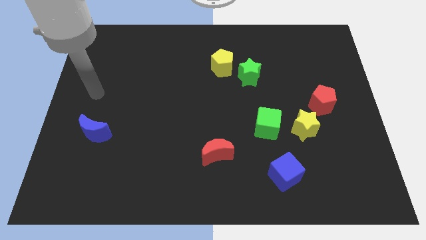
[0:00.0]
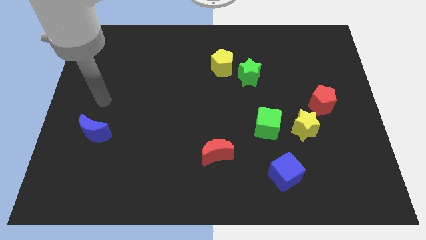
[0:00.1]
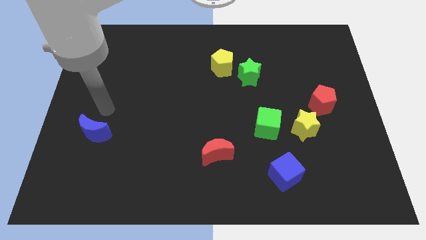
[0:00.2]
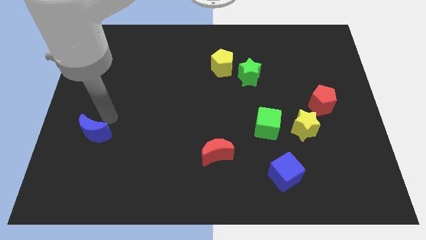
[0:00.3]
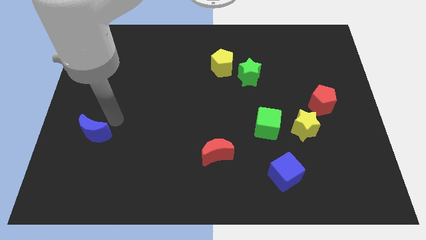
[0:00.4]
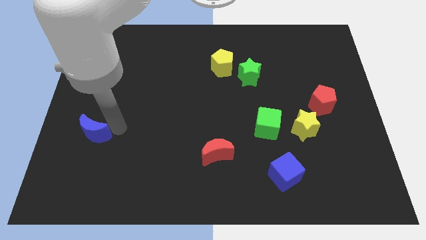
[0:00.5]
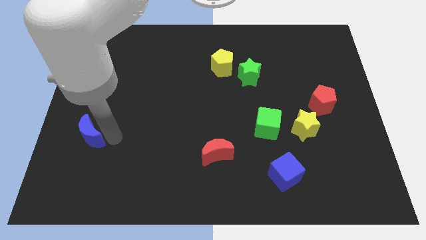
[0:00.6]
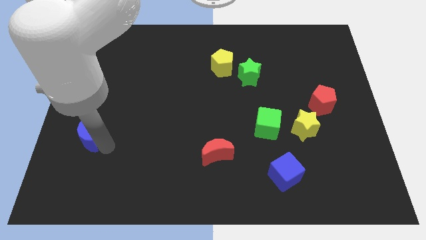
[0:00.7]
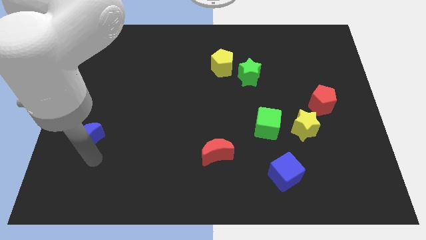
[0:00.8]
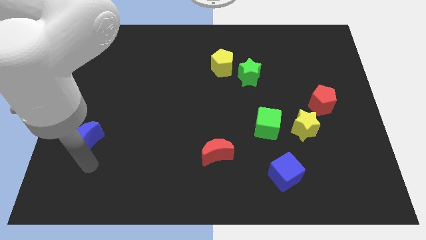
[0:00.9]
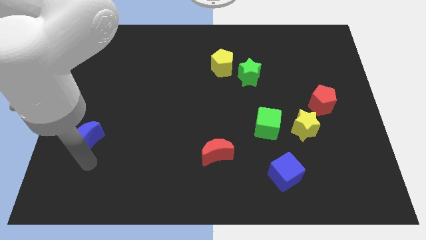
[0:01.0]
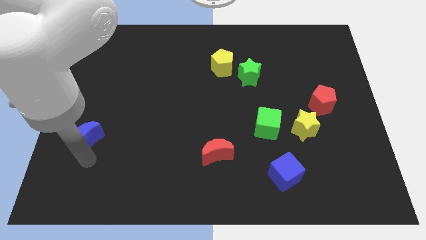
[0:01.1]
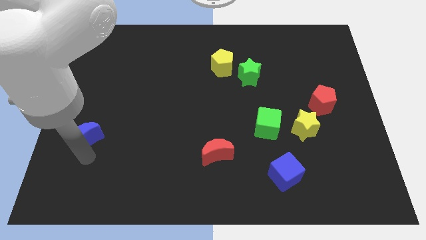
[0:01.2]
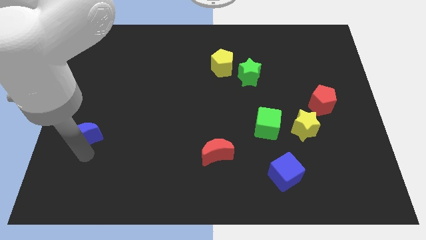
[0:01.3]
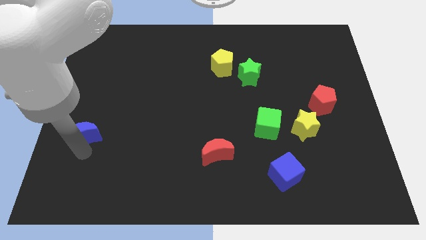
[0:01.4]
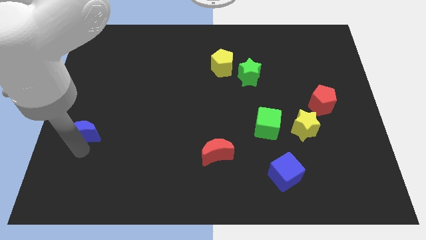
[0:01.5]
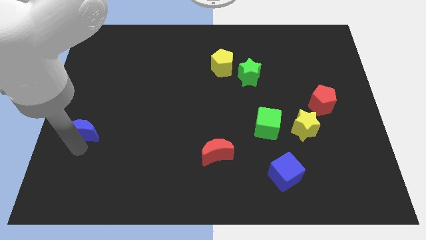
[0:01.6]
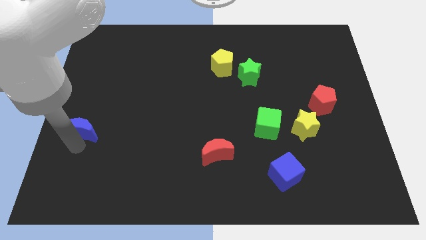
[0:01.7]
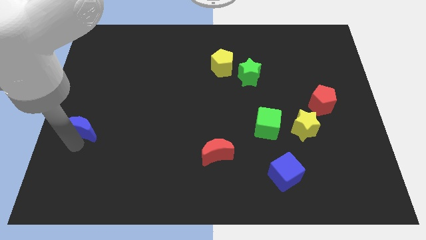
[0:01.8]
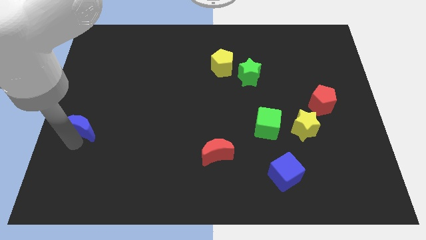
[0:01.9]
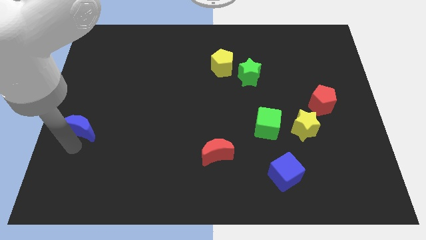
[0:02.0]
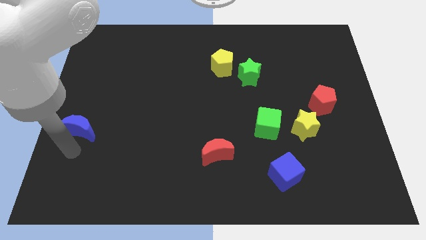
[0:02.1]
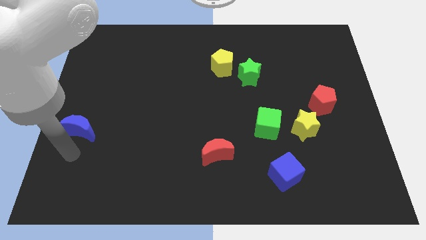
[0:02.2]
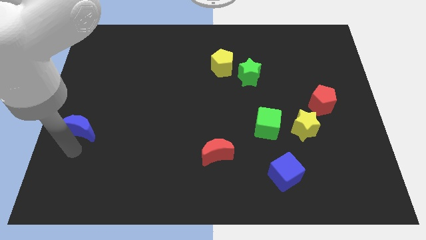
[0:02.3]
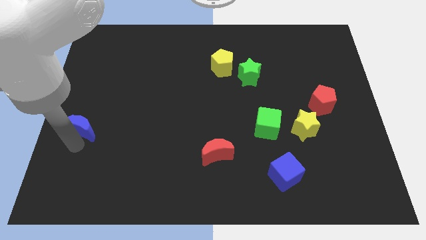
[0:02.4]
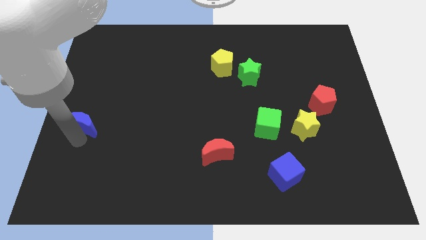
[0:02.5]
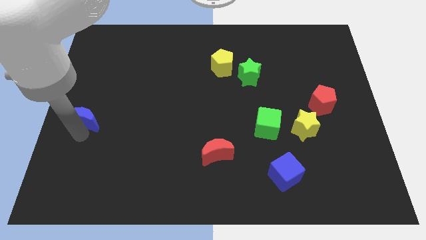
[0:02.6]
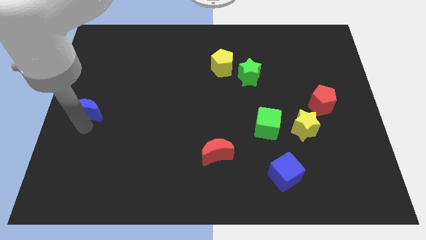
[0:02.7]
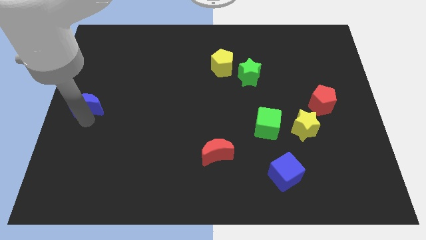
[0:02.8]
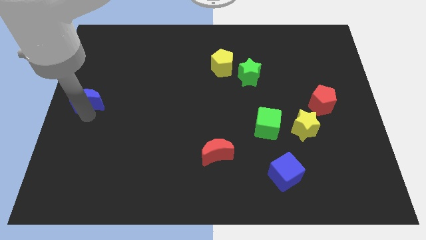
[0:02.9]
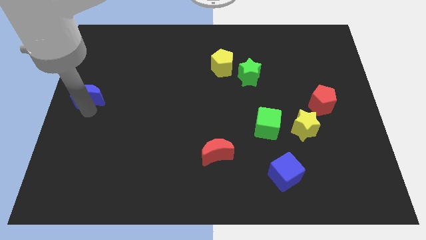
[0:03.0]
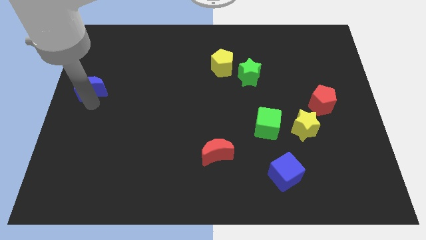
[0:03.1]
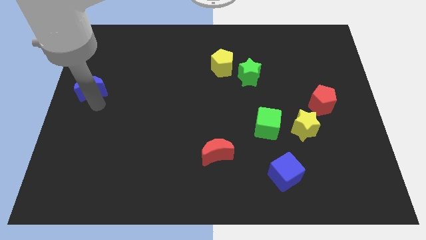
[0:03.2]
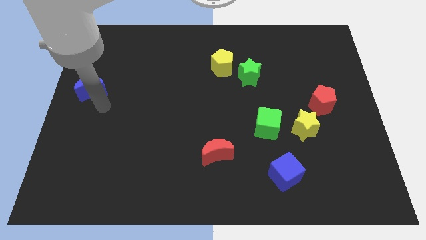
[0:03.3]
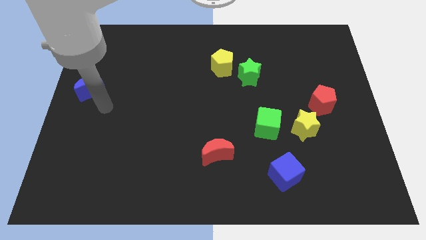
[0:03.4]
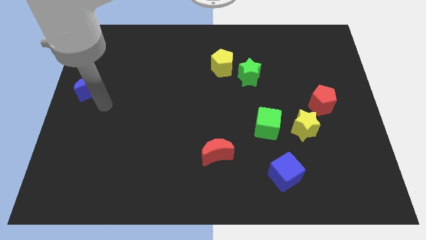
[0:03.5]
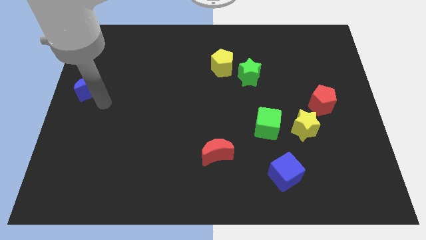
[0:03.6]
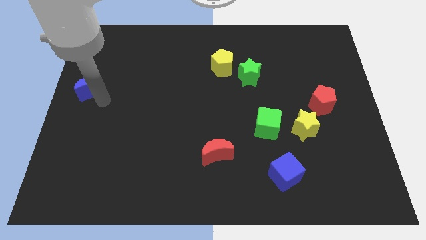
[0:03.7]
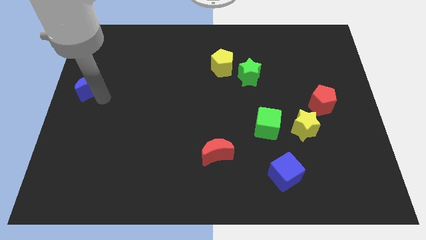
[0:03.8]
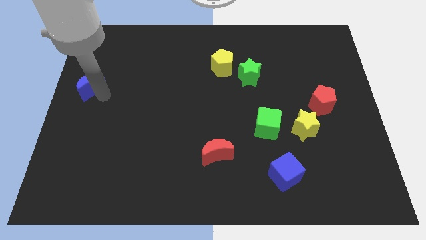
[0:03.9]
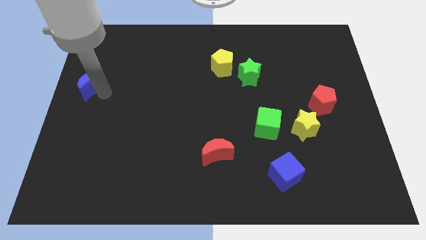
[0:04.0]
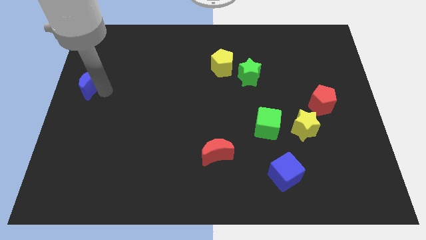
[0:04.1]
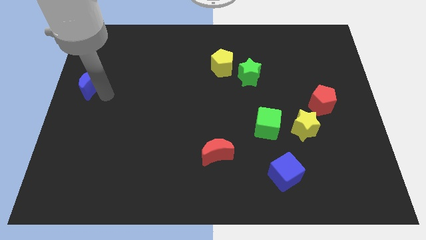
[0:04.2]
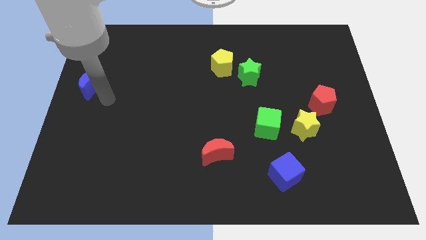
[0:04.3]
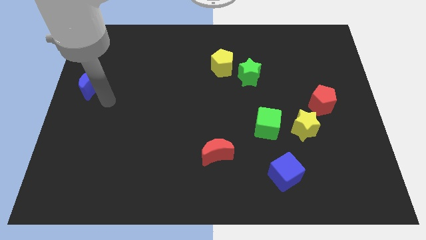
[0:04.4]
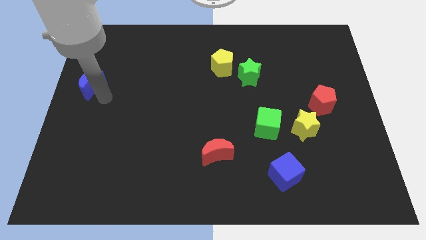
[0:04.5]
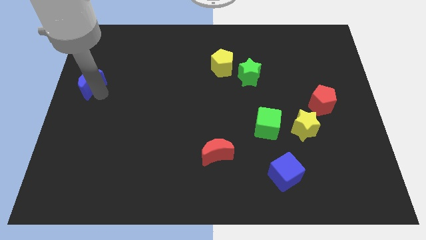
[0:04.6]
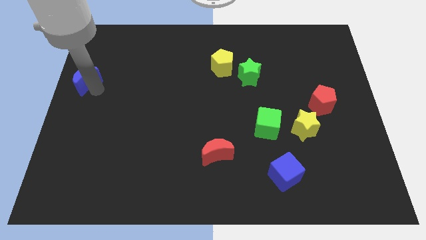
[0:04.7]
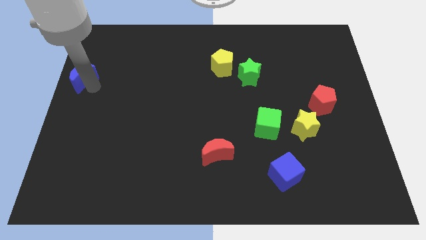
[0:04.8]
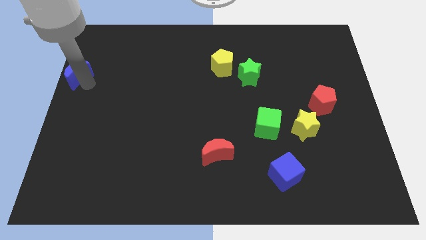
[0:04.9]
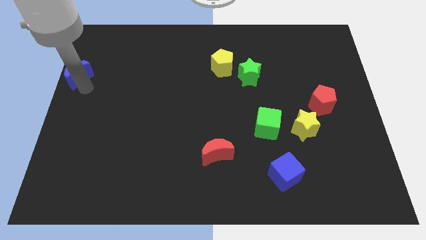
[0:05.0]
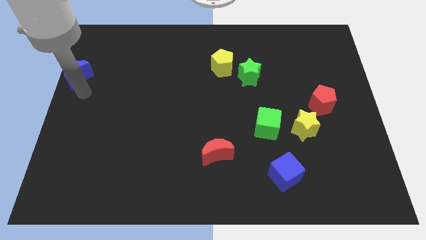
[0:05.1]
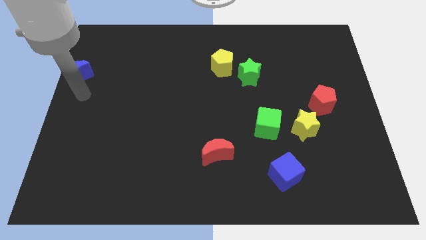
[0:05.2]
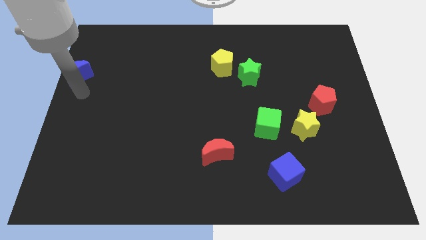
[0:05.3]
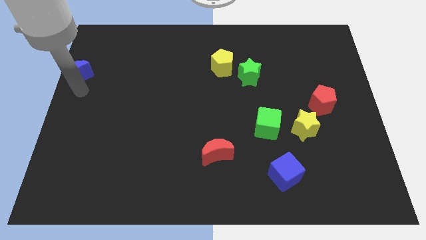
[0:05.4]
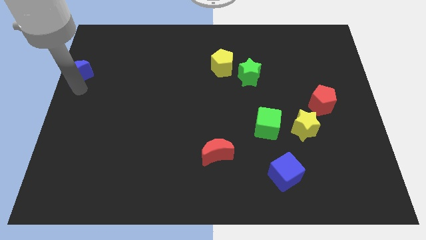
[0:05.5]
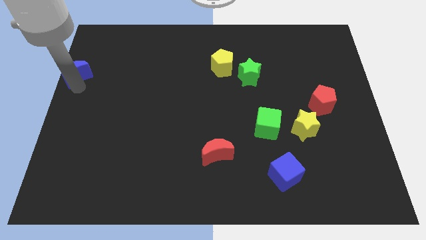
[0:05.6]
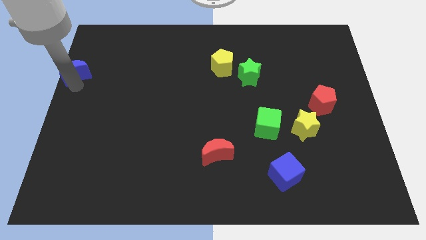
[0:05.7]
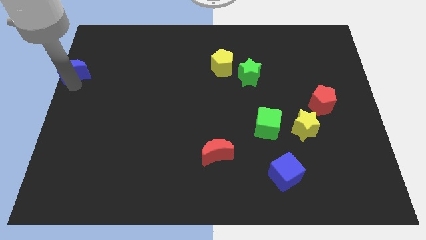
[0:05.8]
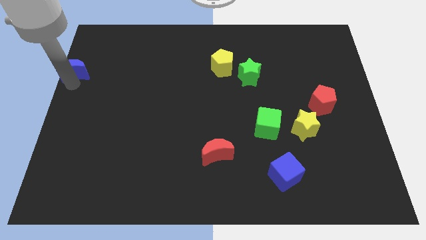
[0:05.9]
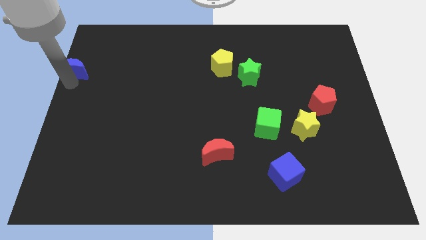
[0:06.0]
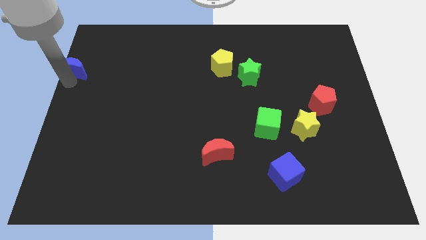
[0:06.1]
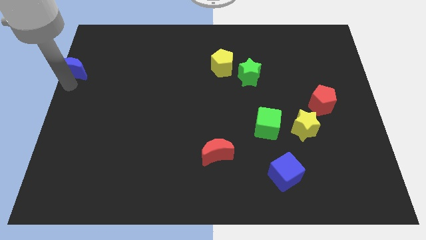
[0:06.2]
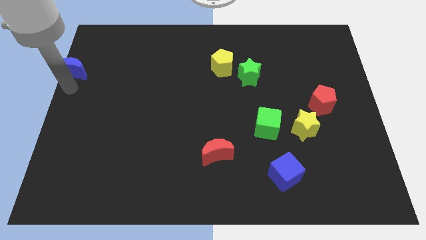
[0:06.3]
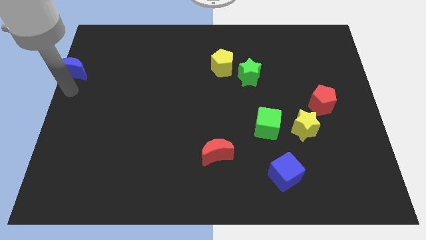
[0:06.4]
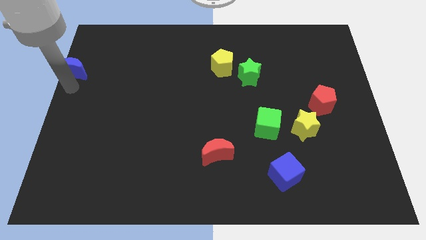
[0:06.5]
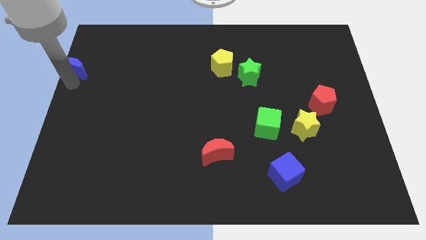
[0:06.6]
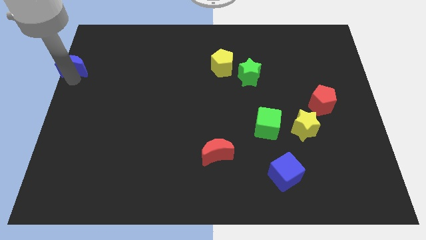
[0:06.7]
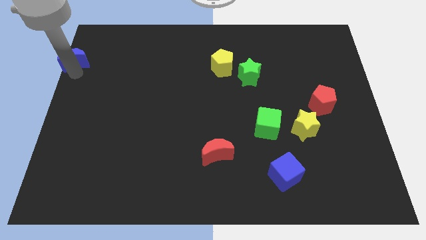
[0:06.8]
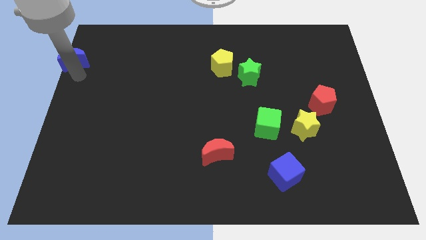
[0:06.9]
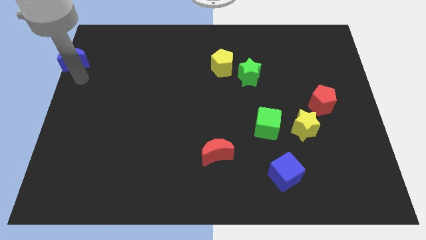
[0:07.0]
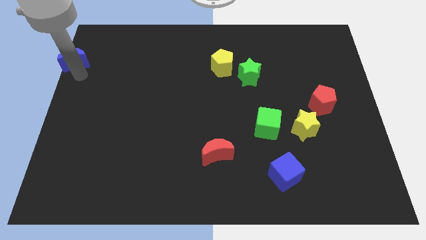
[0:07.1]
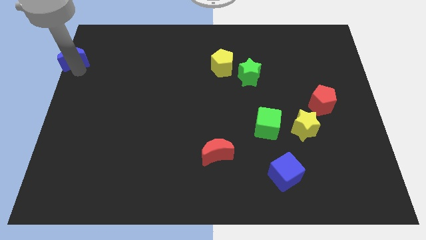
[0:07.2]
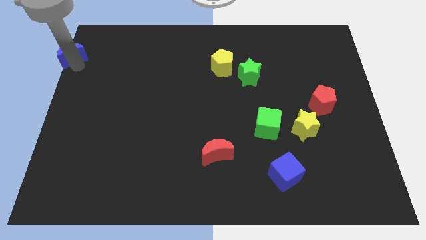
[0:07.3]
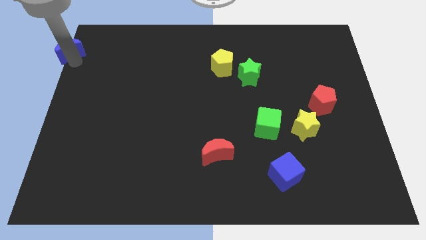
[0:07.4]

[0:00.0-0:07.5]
put the blue moon to the top left corner

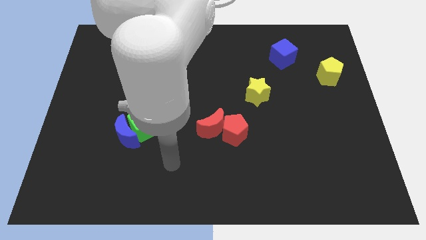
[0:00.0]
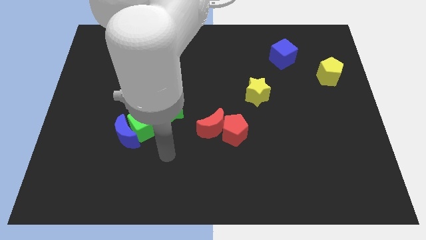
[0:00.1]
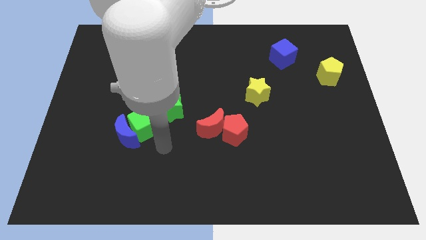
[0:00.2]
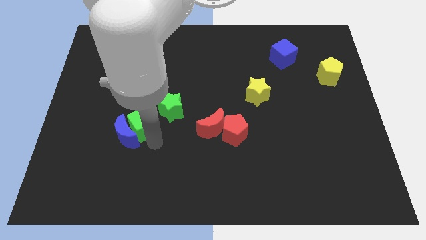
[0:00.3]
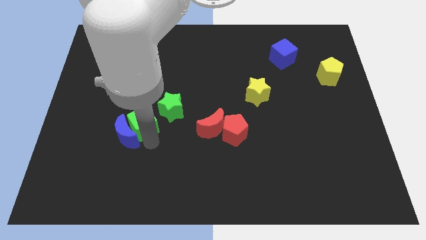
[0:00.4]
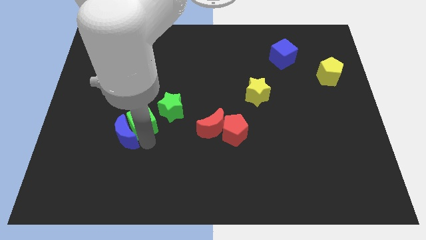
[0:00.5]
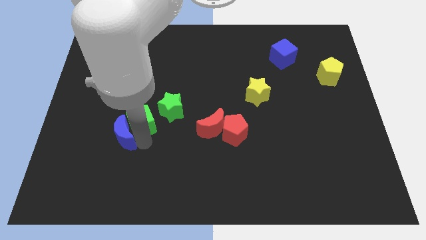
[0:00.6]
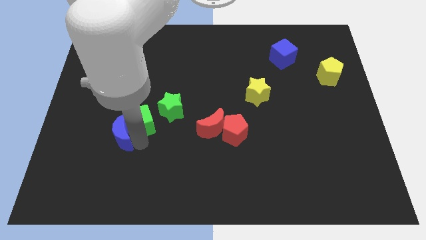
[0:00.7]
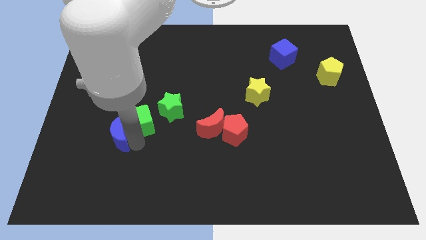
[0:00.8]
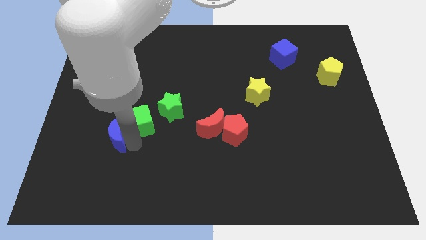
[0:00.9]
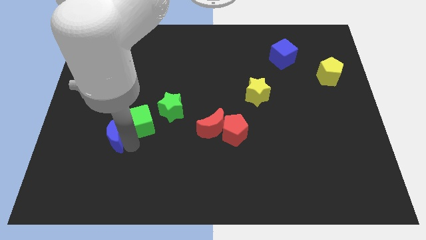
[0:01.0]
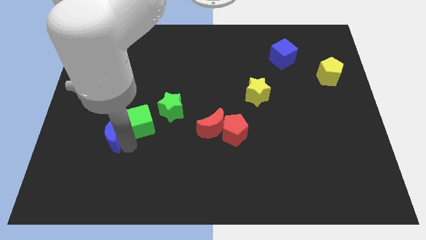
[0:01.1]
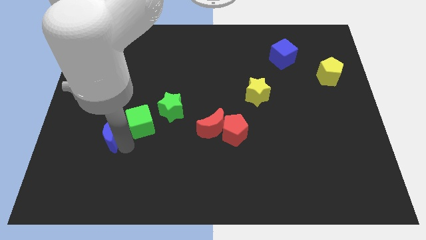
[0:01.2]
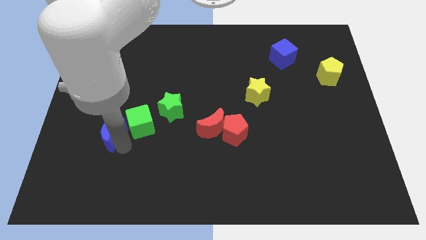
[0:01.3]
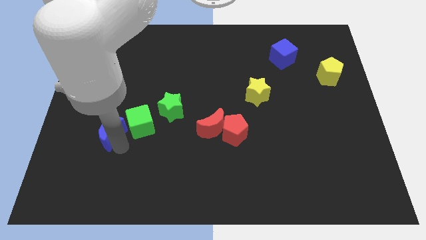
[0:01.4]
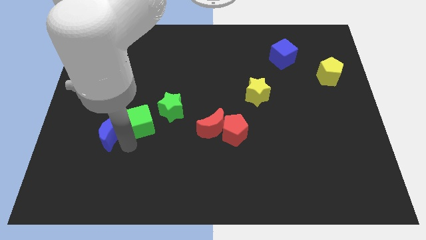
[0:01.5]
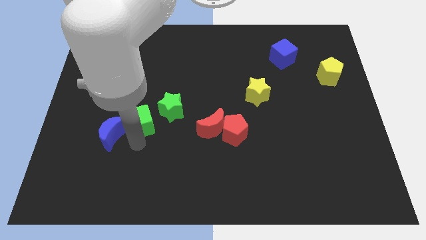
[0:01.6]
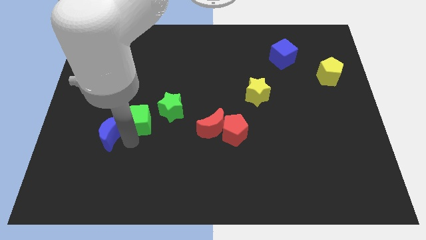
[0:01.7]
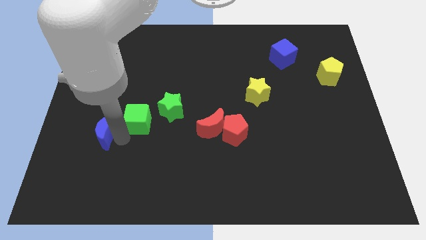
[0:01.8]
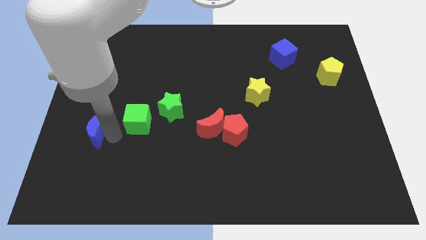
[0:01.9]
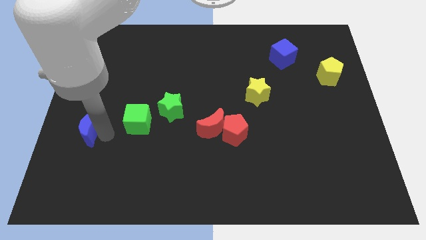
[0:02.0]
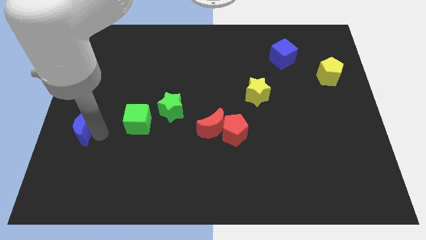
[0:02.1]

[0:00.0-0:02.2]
push the blue moon to the left side
